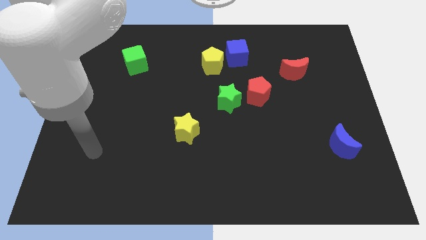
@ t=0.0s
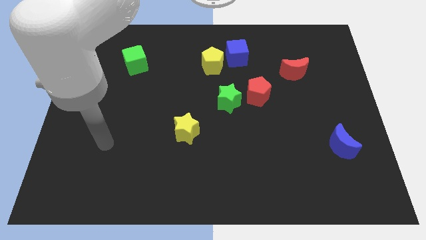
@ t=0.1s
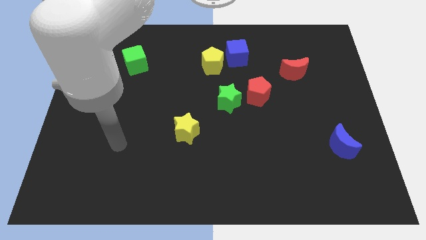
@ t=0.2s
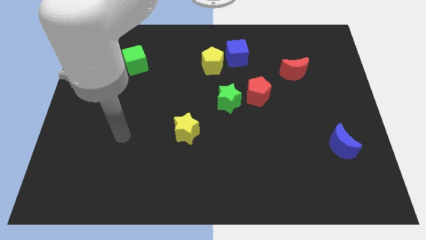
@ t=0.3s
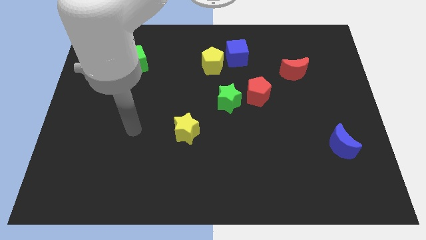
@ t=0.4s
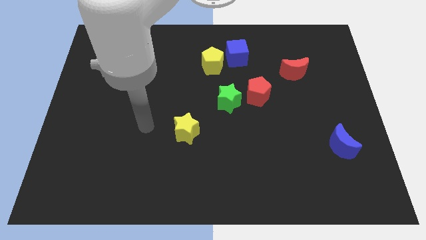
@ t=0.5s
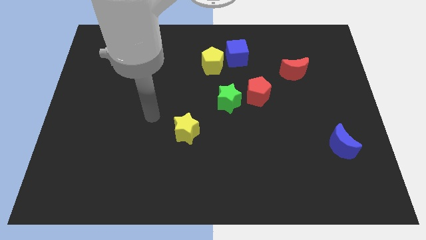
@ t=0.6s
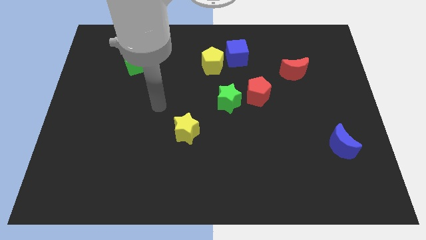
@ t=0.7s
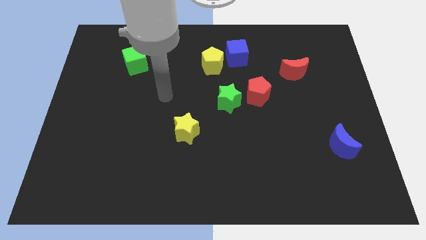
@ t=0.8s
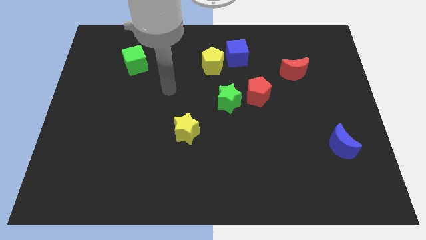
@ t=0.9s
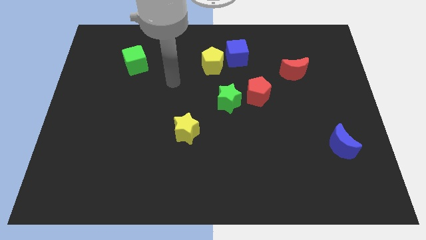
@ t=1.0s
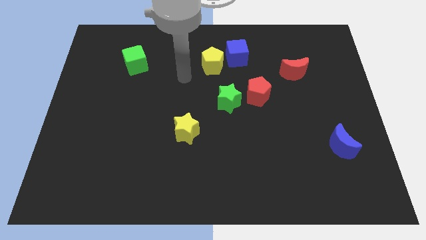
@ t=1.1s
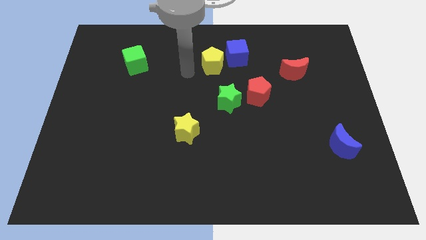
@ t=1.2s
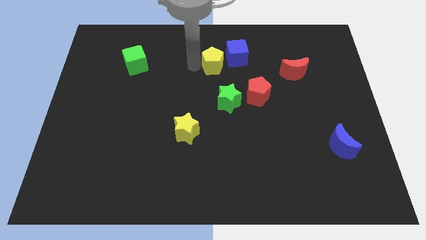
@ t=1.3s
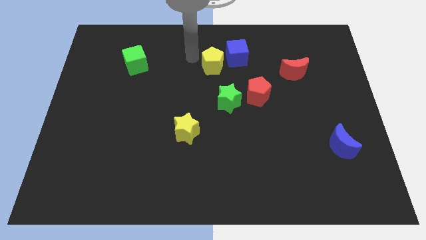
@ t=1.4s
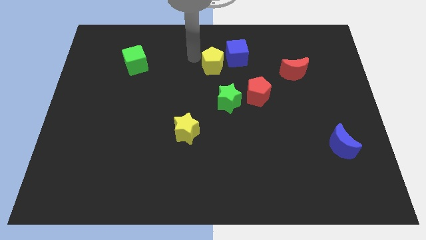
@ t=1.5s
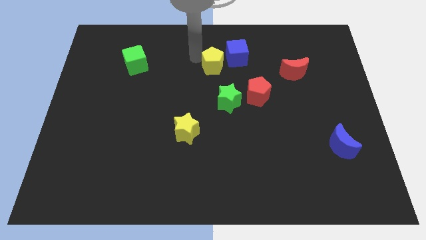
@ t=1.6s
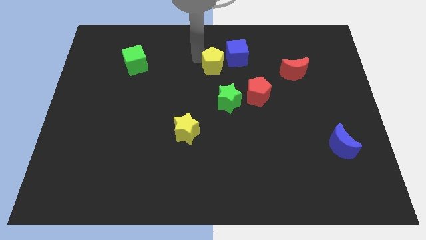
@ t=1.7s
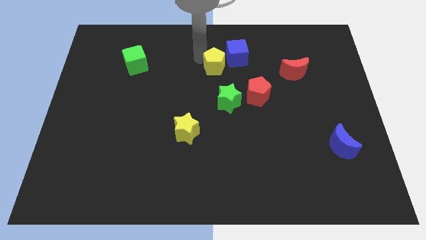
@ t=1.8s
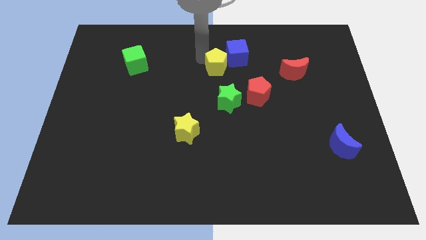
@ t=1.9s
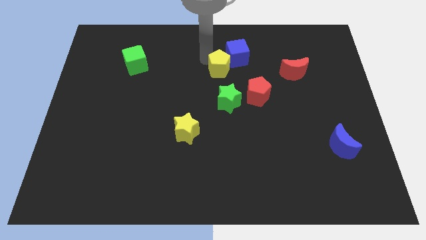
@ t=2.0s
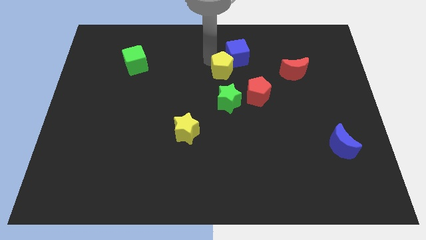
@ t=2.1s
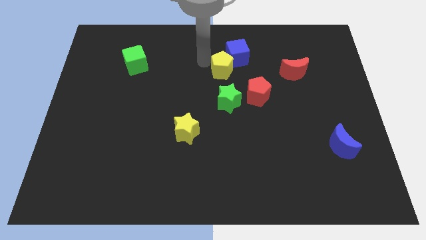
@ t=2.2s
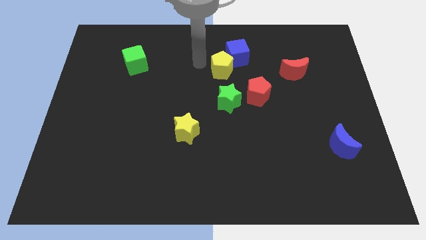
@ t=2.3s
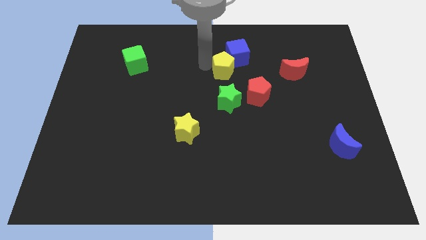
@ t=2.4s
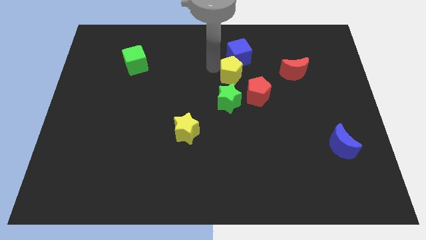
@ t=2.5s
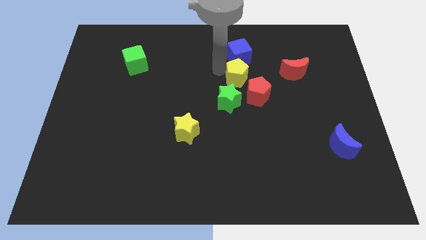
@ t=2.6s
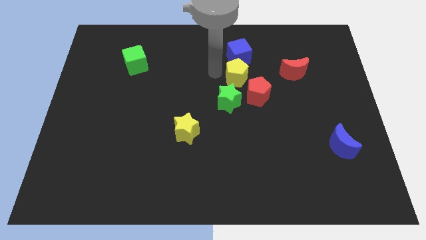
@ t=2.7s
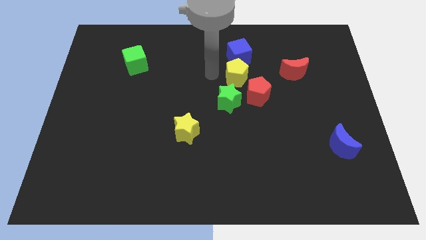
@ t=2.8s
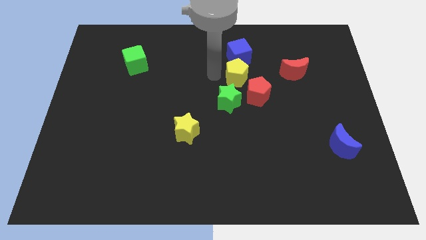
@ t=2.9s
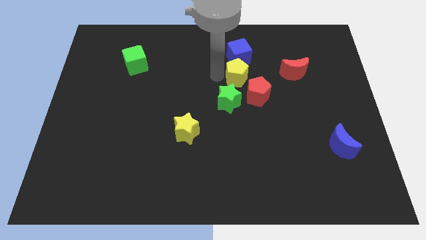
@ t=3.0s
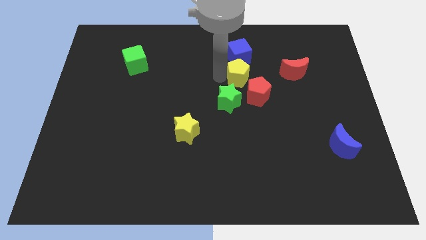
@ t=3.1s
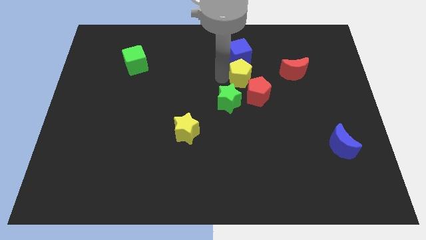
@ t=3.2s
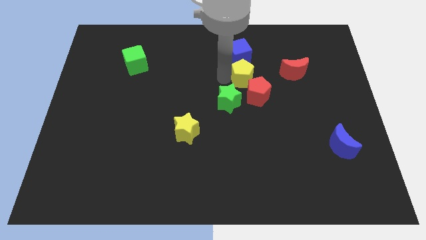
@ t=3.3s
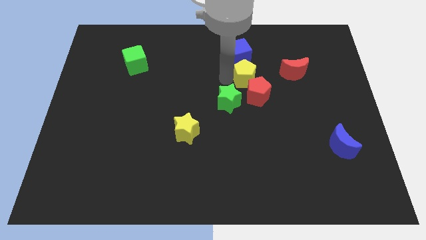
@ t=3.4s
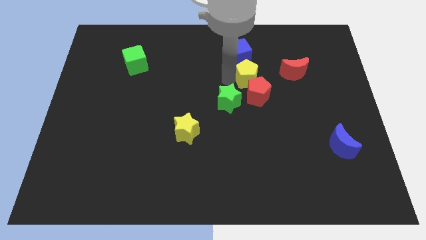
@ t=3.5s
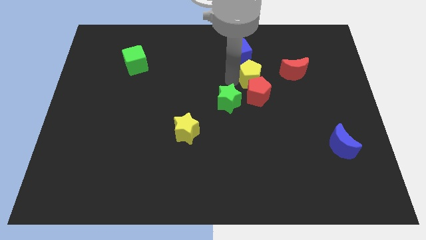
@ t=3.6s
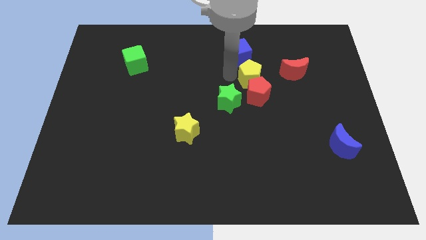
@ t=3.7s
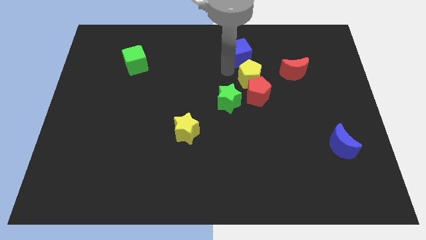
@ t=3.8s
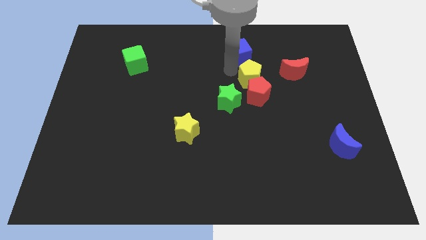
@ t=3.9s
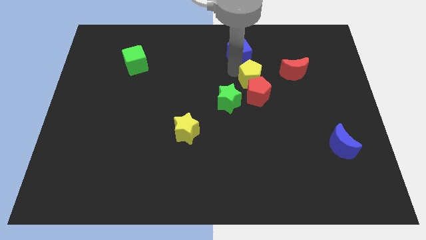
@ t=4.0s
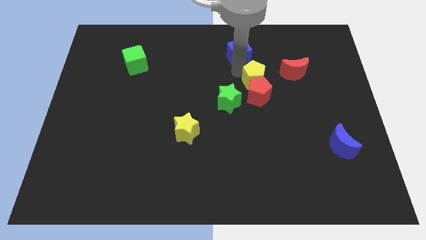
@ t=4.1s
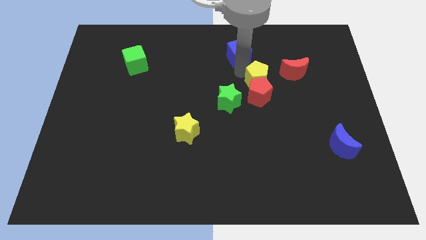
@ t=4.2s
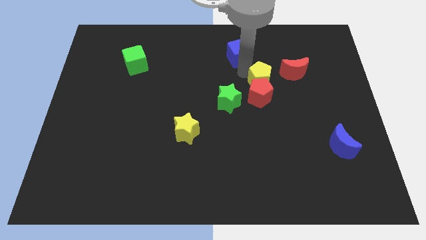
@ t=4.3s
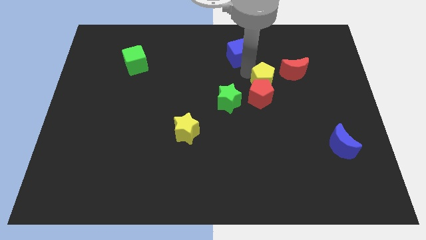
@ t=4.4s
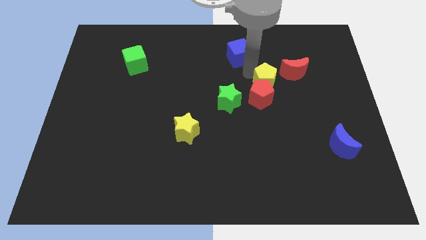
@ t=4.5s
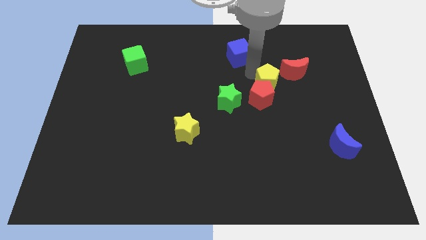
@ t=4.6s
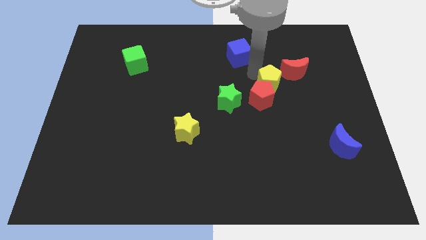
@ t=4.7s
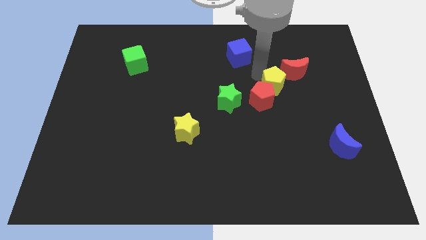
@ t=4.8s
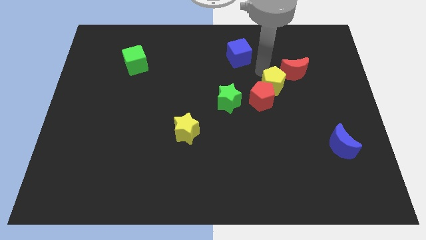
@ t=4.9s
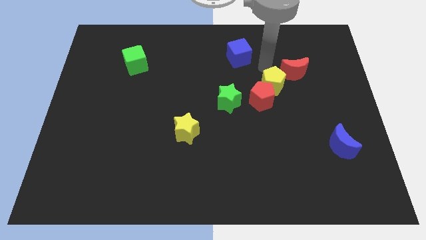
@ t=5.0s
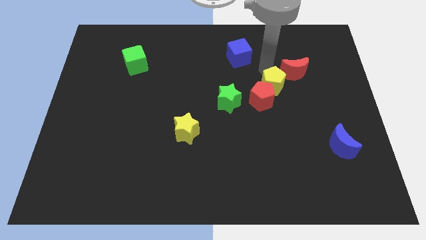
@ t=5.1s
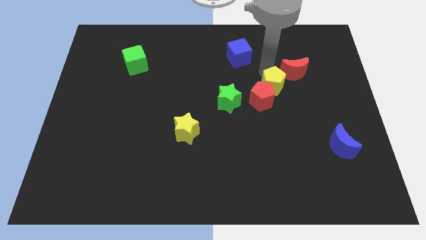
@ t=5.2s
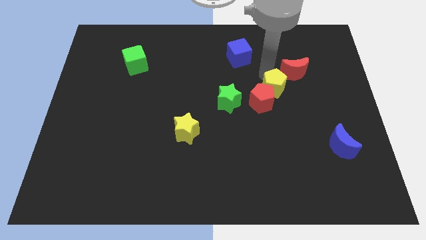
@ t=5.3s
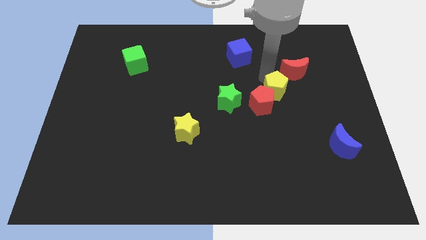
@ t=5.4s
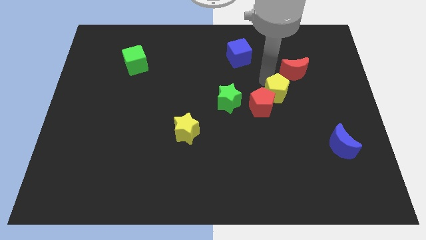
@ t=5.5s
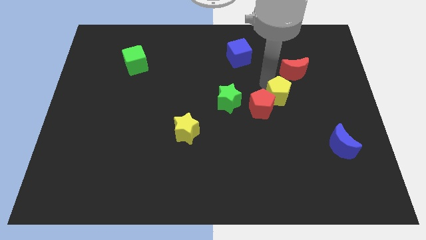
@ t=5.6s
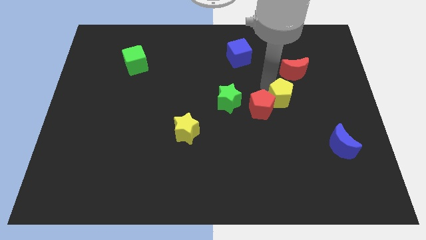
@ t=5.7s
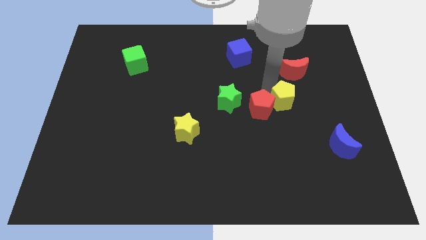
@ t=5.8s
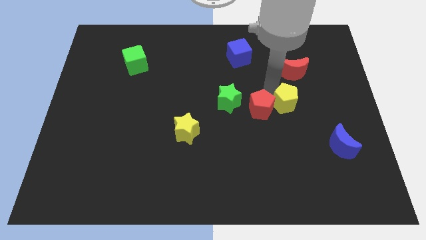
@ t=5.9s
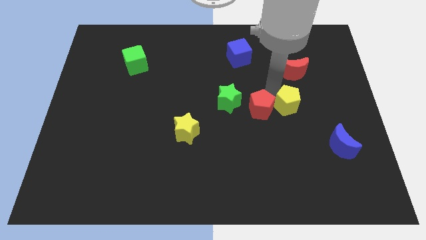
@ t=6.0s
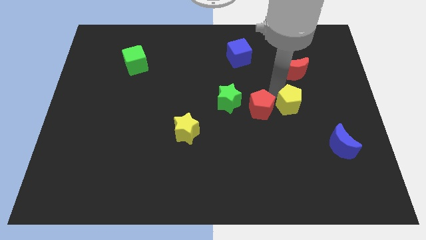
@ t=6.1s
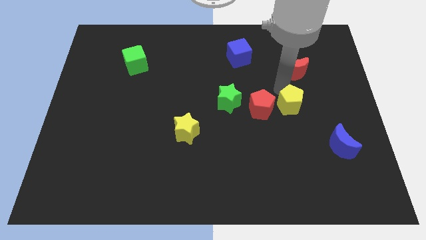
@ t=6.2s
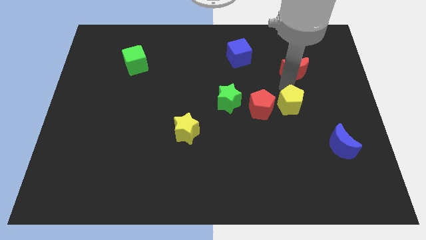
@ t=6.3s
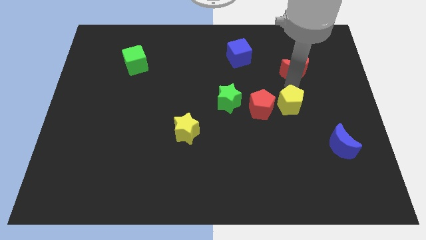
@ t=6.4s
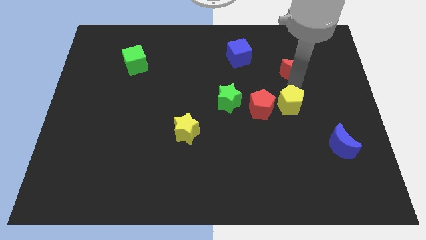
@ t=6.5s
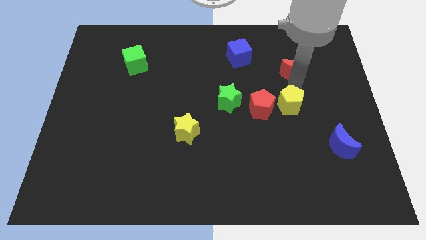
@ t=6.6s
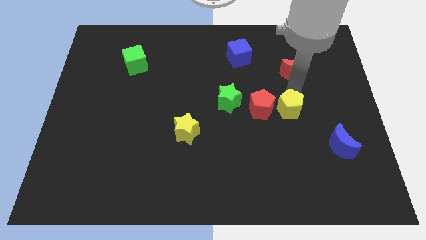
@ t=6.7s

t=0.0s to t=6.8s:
slide the yellow pentagon to the bottom right side of the red pentagon

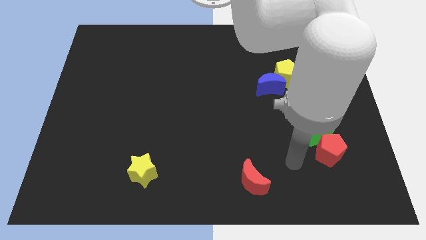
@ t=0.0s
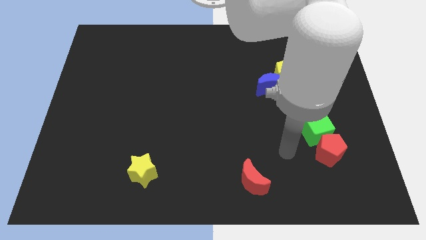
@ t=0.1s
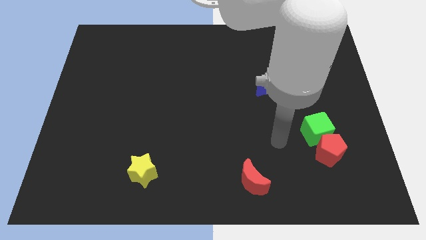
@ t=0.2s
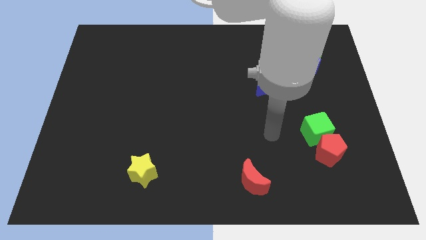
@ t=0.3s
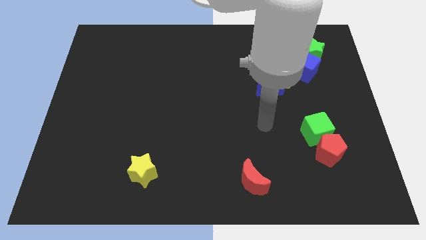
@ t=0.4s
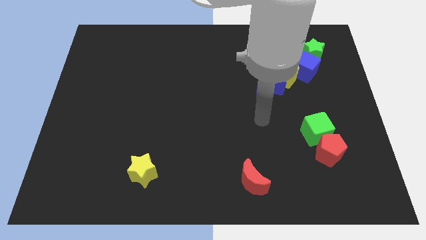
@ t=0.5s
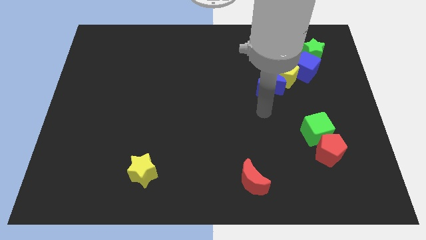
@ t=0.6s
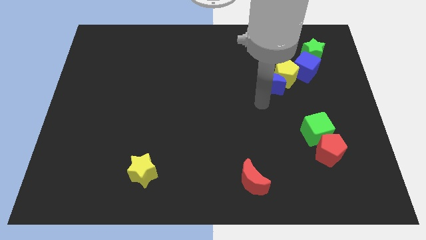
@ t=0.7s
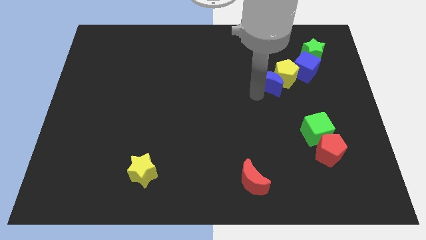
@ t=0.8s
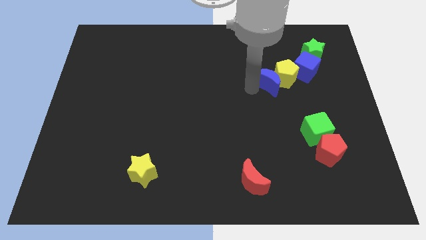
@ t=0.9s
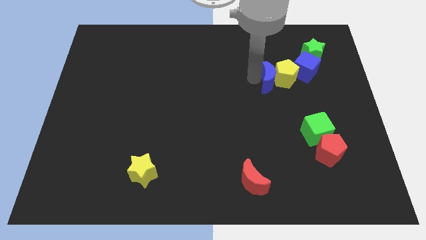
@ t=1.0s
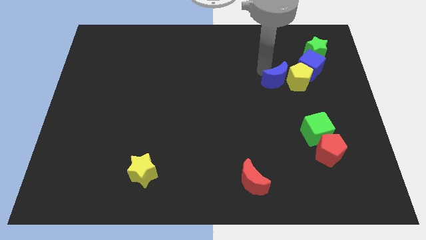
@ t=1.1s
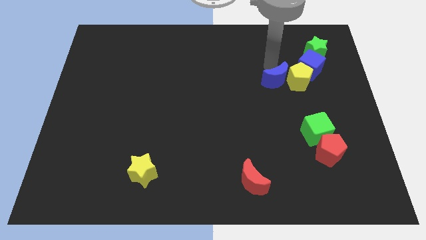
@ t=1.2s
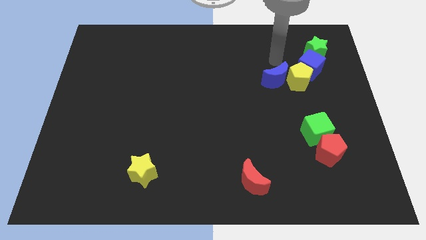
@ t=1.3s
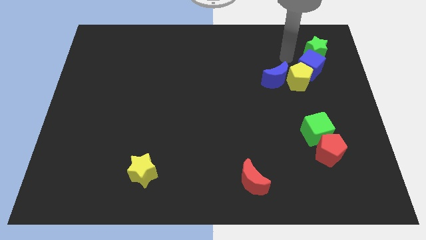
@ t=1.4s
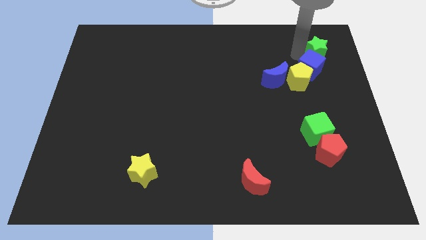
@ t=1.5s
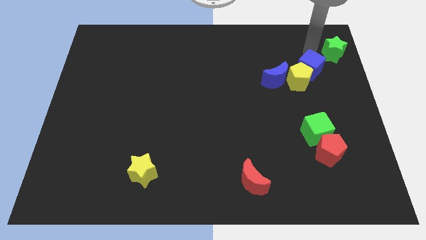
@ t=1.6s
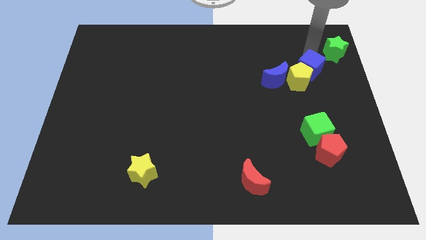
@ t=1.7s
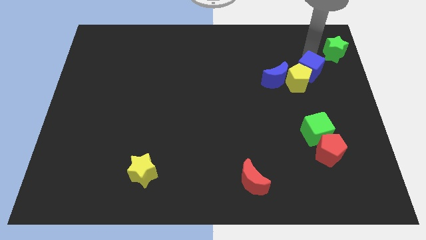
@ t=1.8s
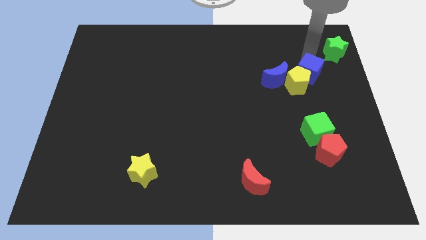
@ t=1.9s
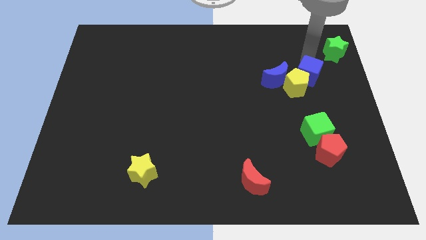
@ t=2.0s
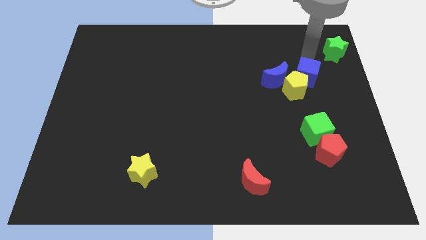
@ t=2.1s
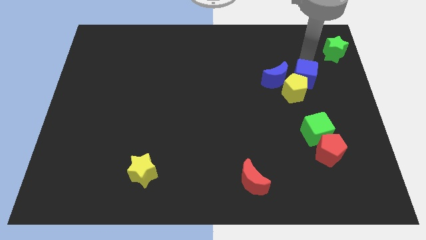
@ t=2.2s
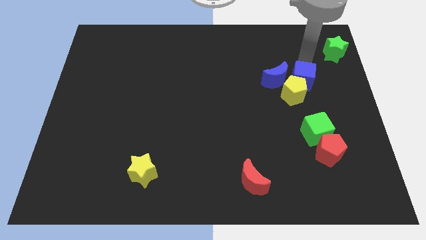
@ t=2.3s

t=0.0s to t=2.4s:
move the blue cube to the top of the green cube
